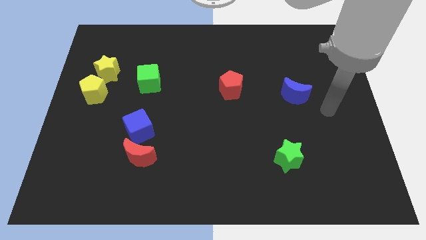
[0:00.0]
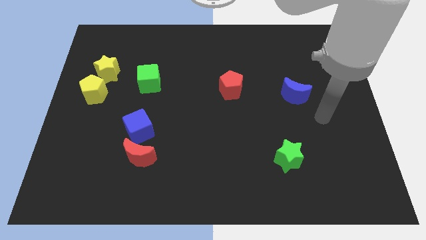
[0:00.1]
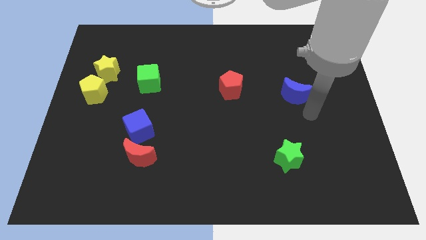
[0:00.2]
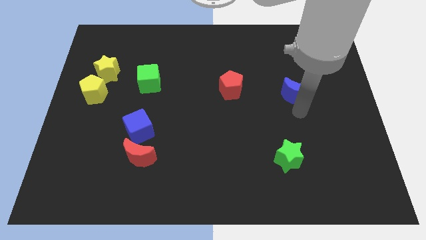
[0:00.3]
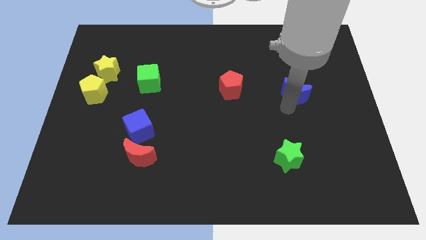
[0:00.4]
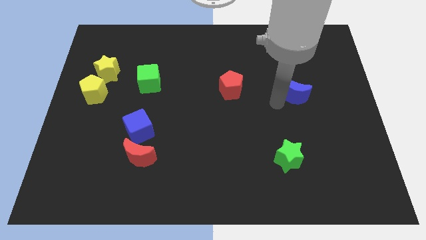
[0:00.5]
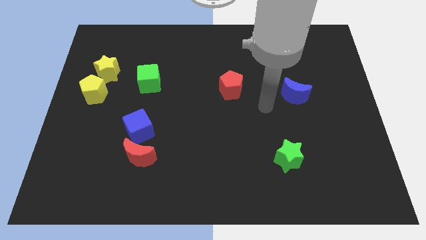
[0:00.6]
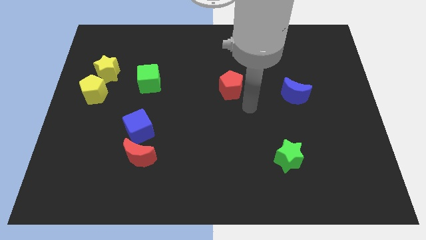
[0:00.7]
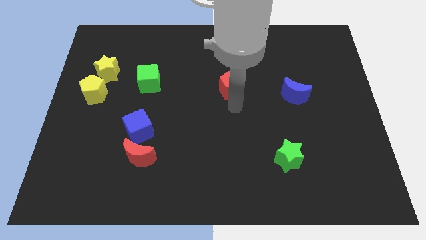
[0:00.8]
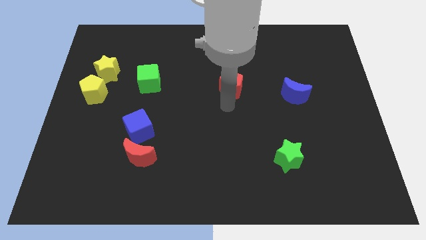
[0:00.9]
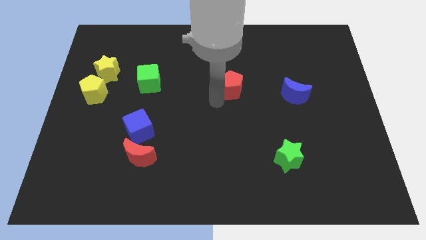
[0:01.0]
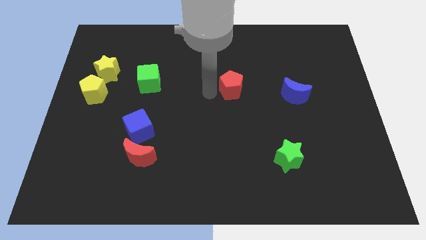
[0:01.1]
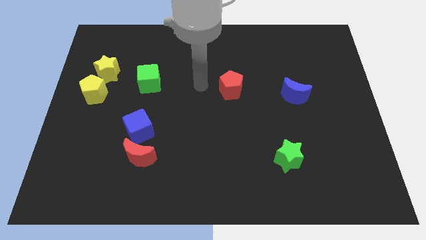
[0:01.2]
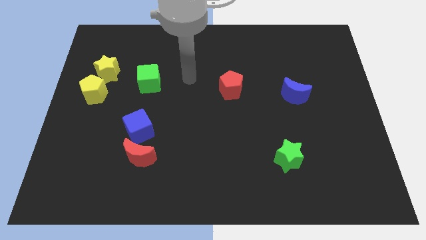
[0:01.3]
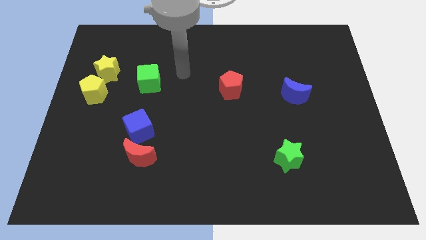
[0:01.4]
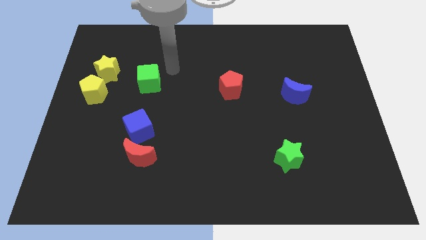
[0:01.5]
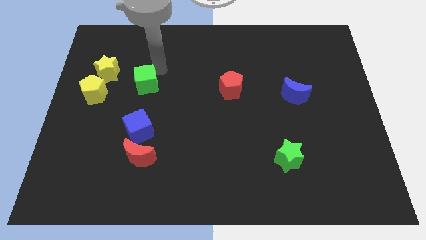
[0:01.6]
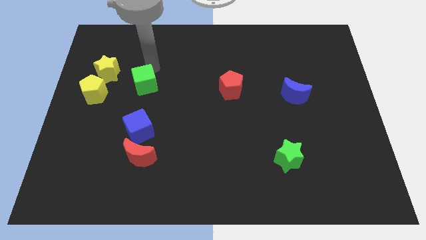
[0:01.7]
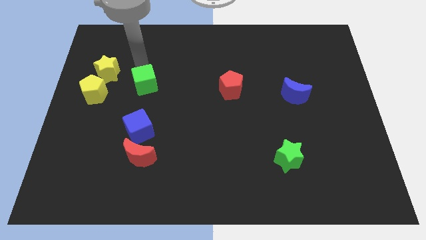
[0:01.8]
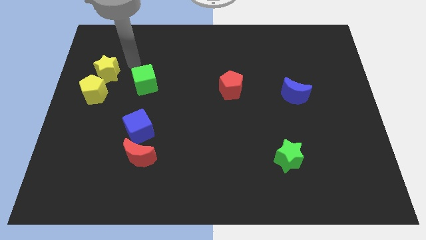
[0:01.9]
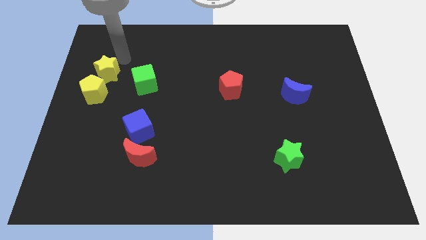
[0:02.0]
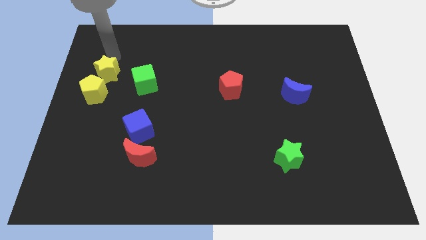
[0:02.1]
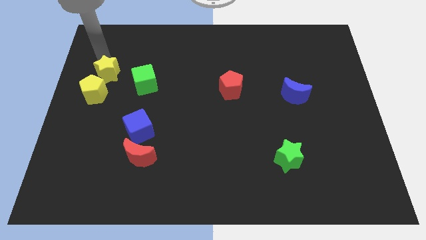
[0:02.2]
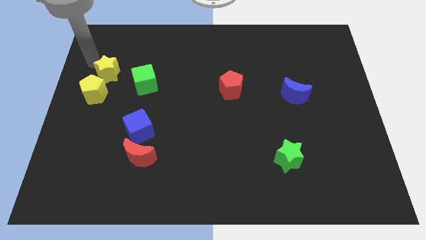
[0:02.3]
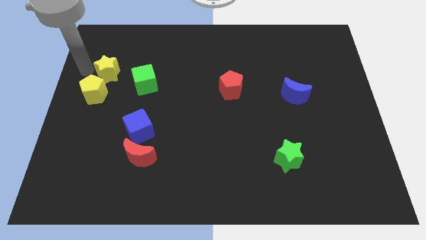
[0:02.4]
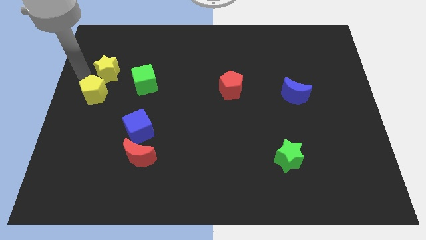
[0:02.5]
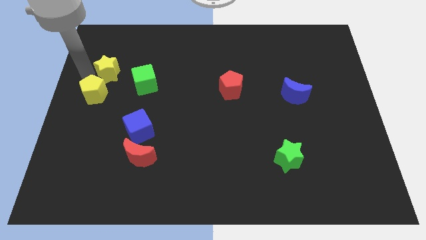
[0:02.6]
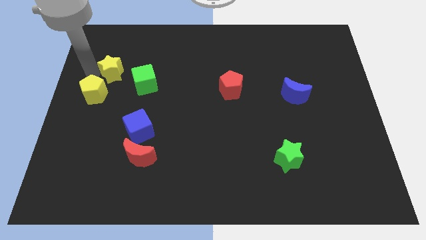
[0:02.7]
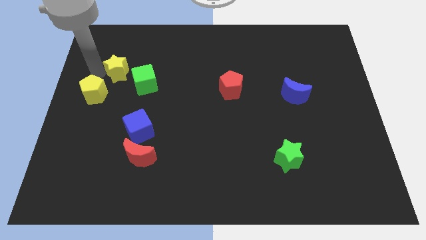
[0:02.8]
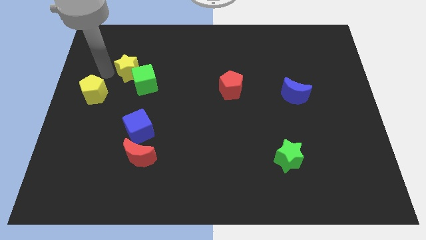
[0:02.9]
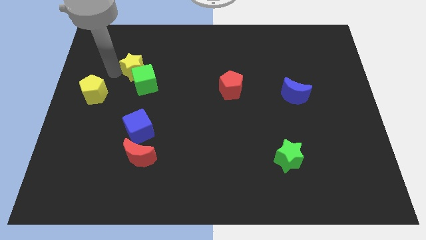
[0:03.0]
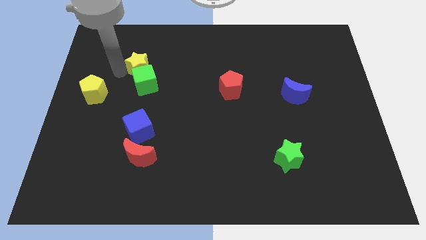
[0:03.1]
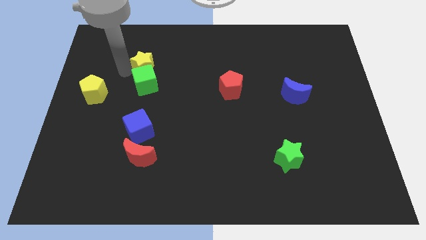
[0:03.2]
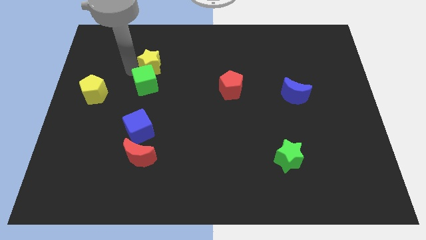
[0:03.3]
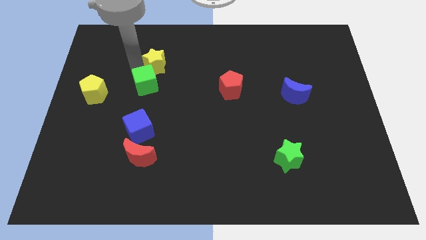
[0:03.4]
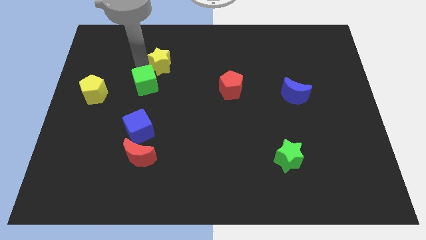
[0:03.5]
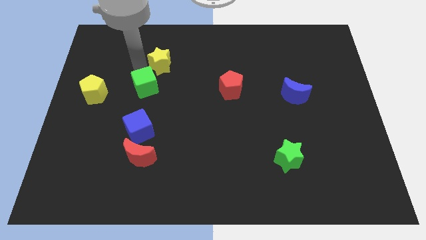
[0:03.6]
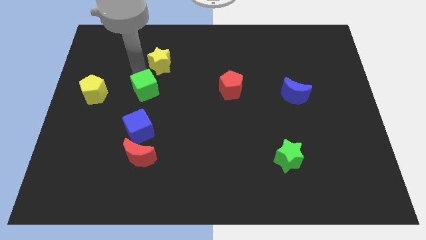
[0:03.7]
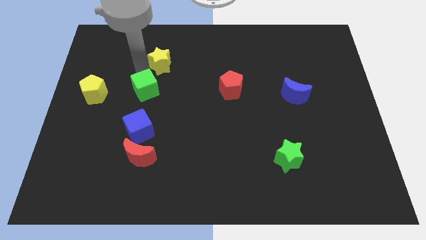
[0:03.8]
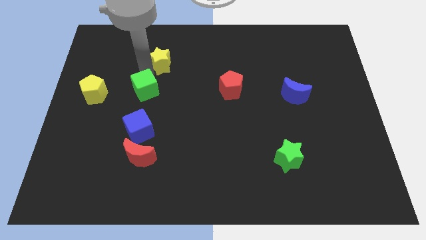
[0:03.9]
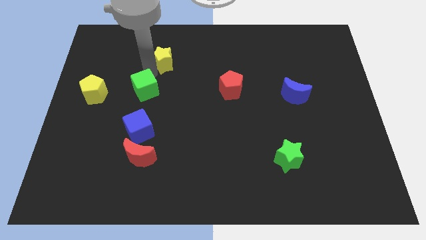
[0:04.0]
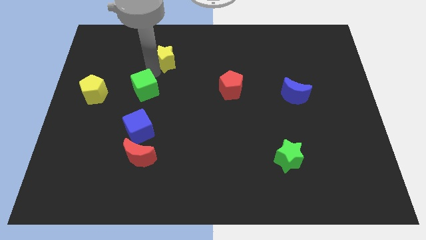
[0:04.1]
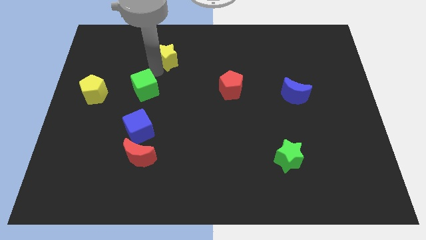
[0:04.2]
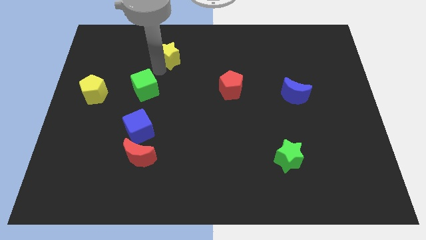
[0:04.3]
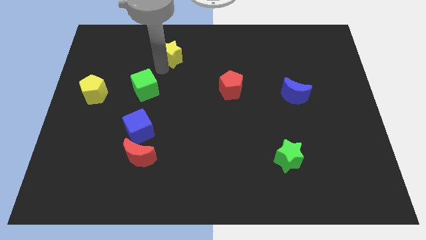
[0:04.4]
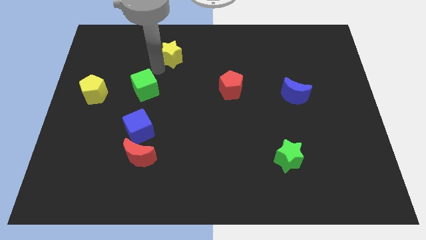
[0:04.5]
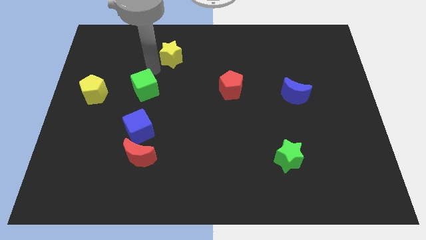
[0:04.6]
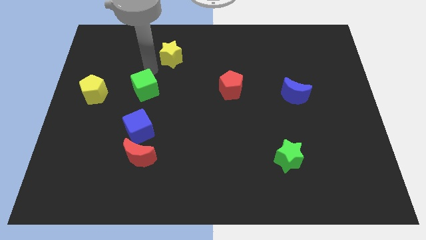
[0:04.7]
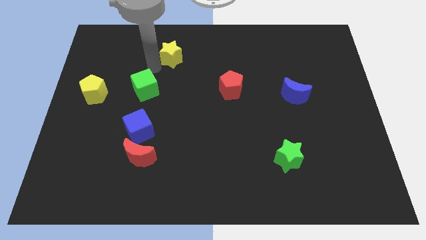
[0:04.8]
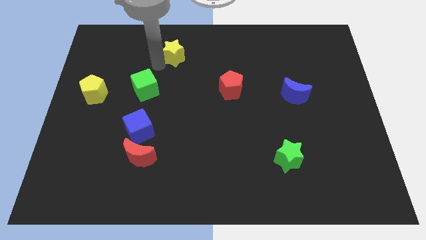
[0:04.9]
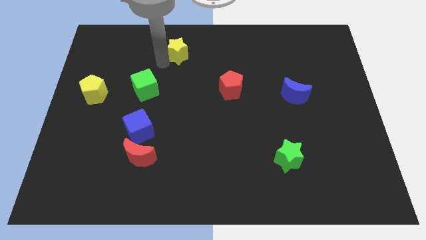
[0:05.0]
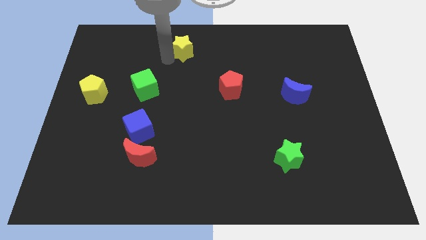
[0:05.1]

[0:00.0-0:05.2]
slide the yellow star to the top side

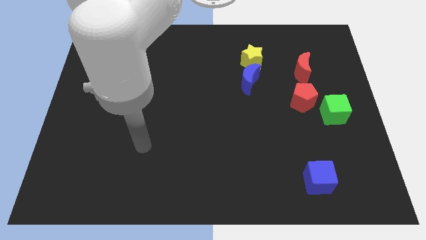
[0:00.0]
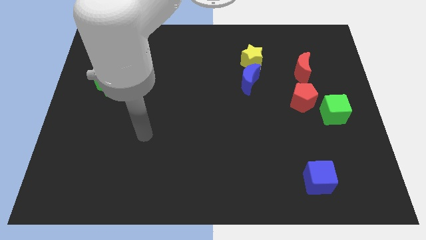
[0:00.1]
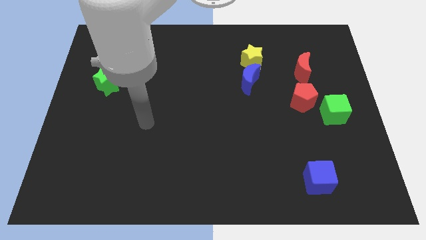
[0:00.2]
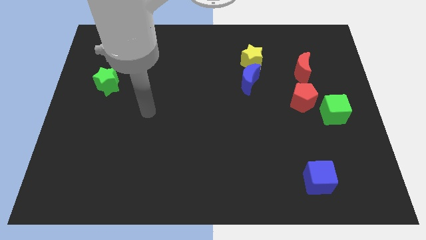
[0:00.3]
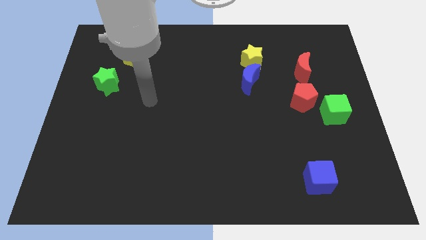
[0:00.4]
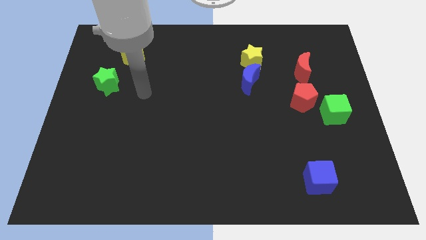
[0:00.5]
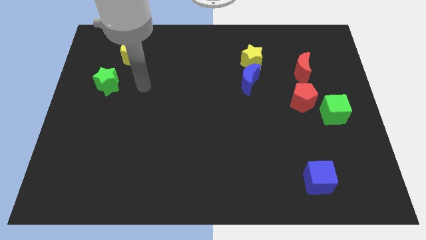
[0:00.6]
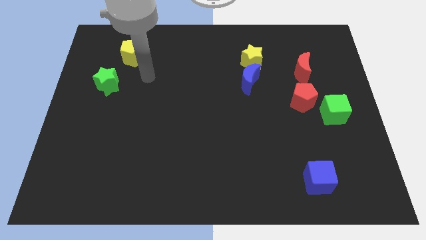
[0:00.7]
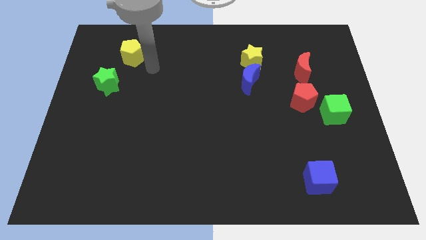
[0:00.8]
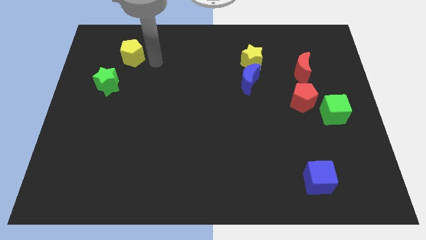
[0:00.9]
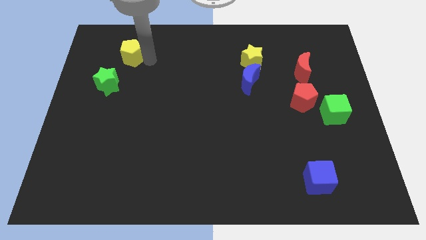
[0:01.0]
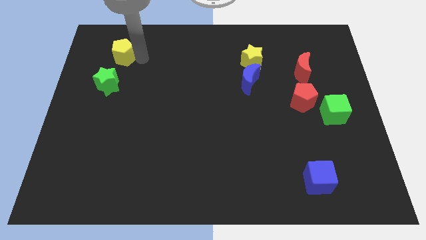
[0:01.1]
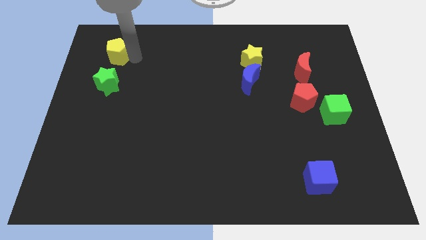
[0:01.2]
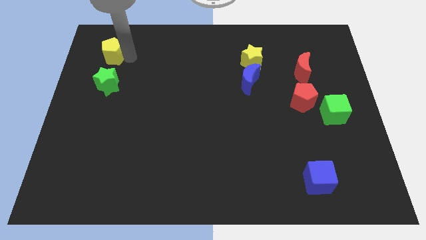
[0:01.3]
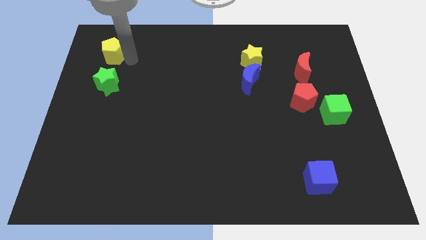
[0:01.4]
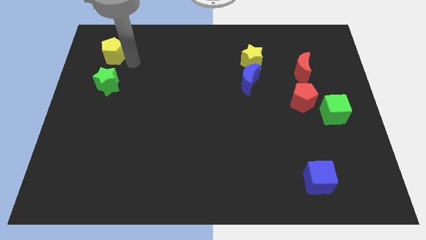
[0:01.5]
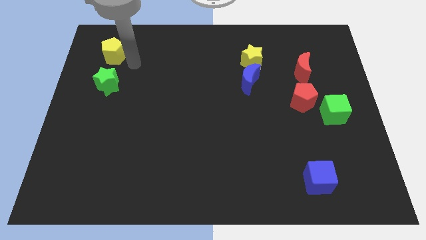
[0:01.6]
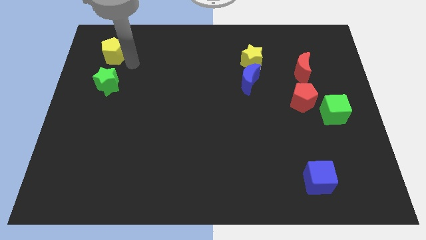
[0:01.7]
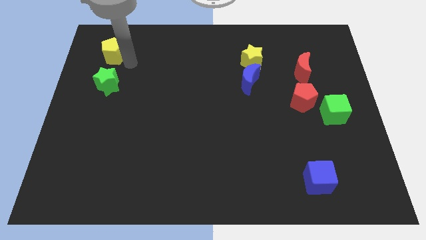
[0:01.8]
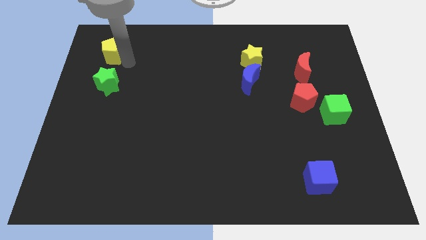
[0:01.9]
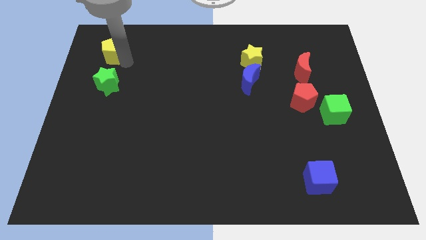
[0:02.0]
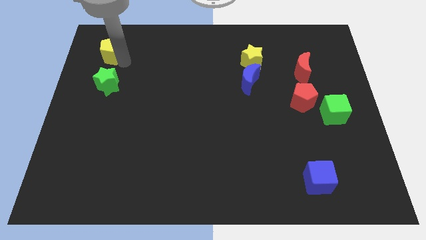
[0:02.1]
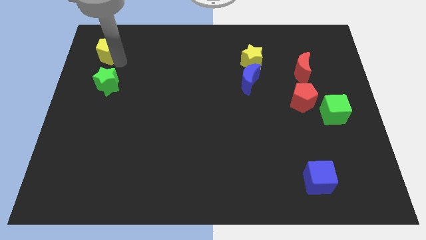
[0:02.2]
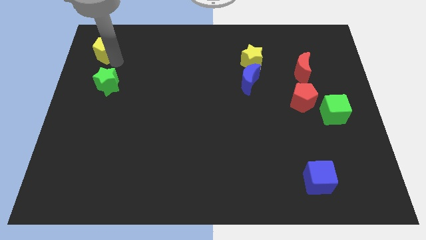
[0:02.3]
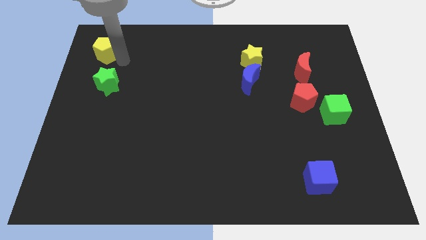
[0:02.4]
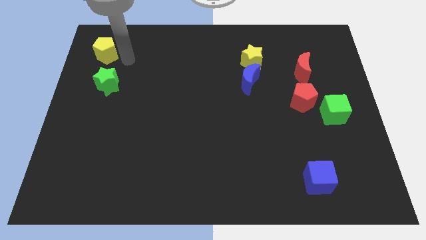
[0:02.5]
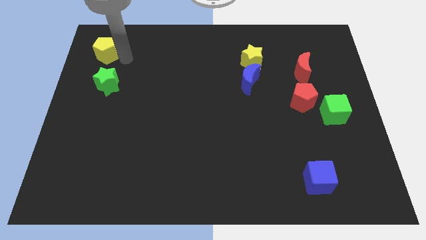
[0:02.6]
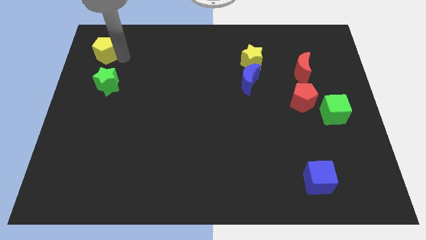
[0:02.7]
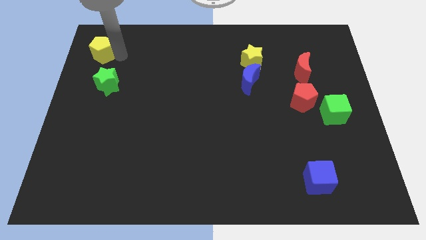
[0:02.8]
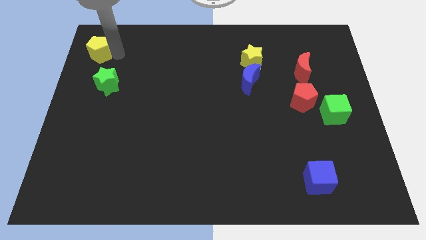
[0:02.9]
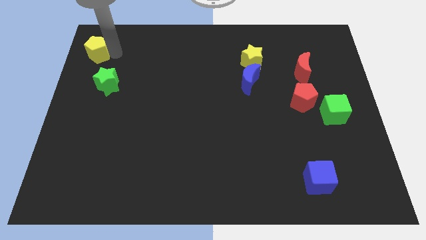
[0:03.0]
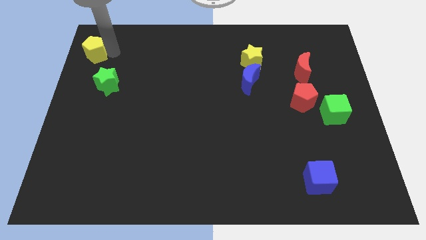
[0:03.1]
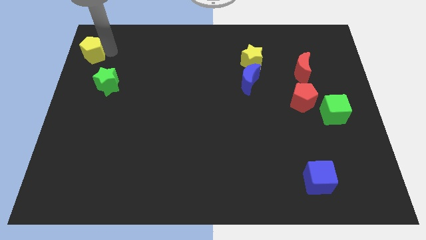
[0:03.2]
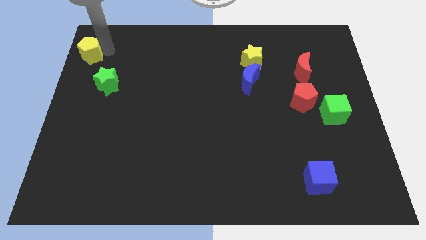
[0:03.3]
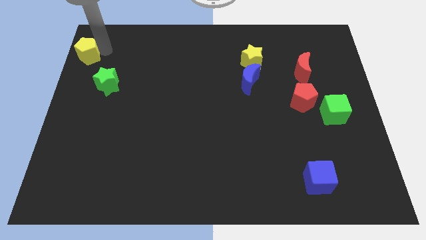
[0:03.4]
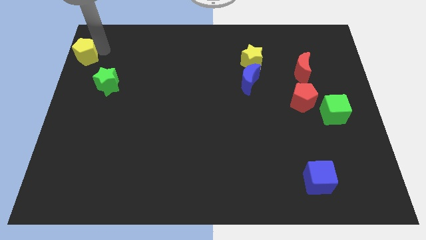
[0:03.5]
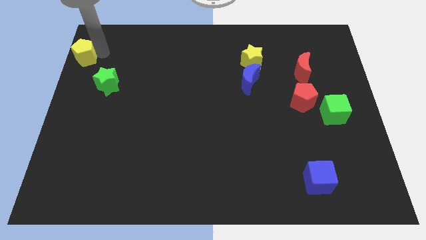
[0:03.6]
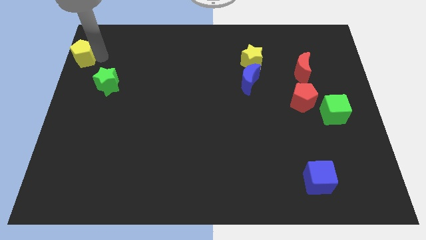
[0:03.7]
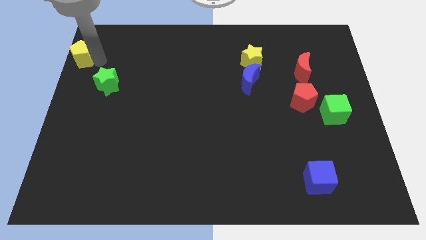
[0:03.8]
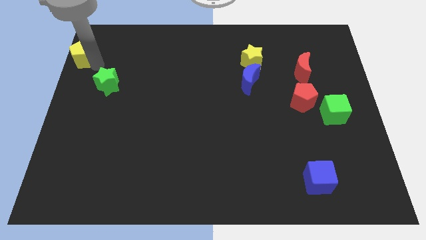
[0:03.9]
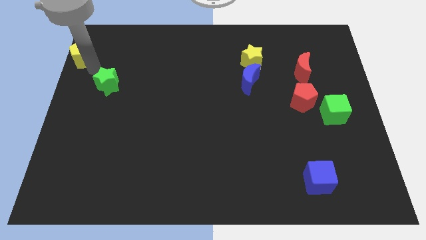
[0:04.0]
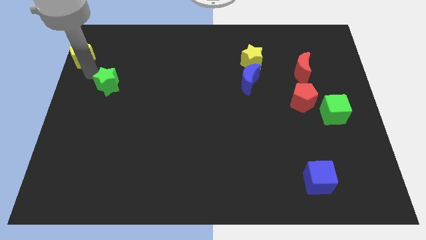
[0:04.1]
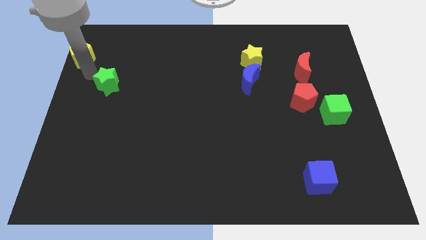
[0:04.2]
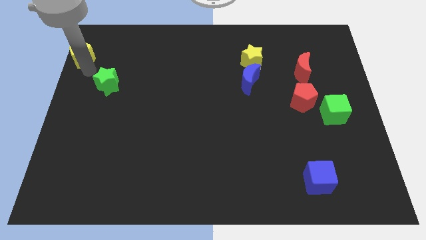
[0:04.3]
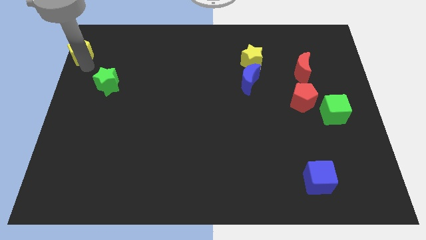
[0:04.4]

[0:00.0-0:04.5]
move the yellow pentagon to the upper left corner
